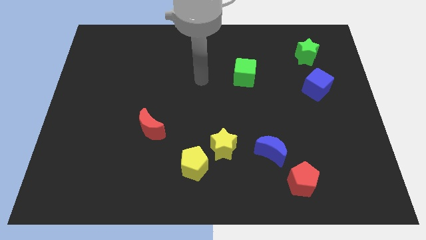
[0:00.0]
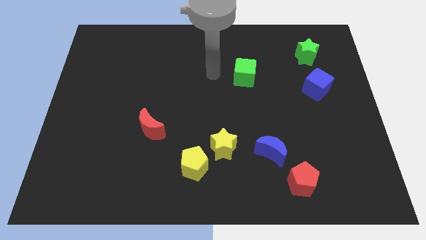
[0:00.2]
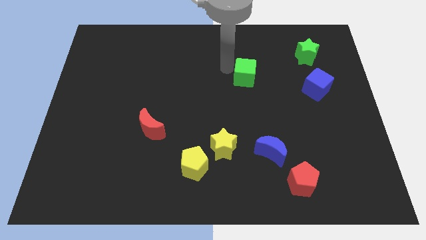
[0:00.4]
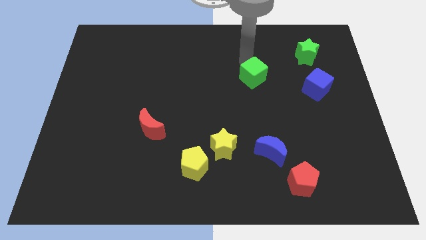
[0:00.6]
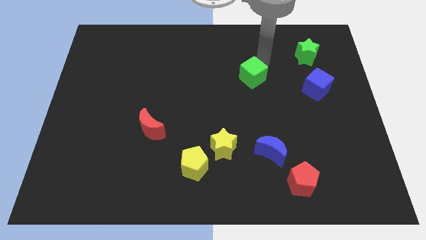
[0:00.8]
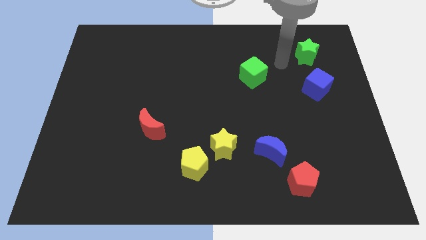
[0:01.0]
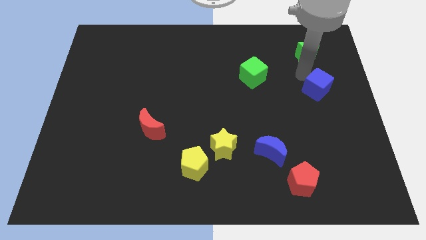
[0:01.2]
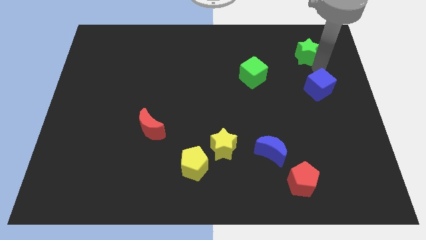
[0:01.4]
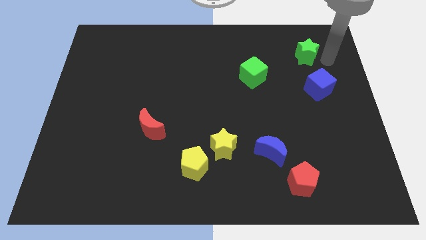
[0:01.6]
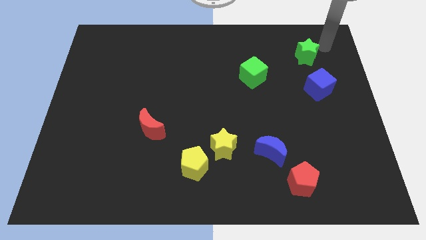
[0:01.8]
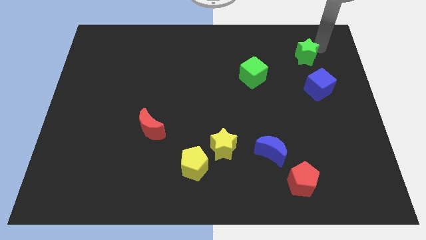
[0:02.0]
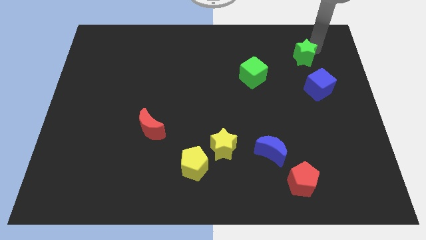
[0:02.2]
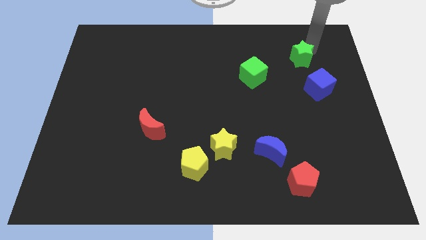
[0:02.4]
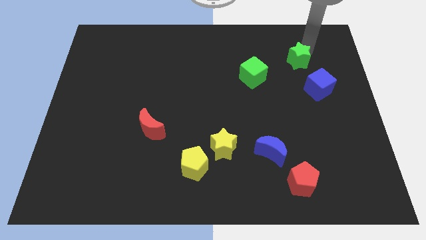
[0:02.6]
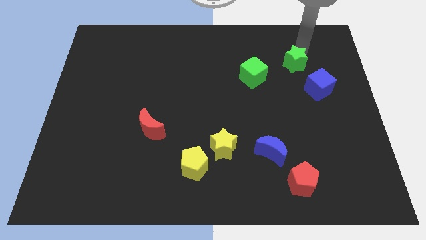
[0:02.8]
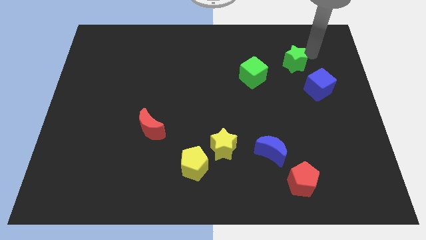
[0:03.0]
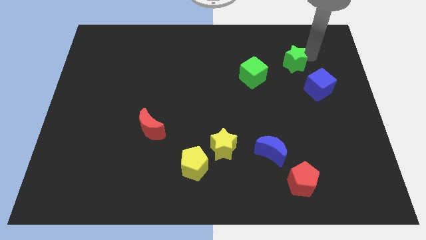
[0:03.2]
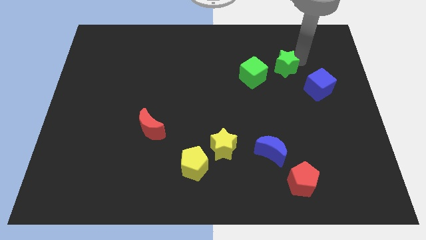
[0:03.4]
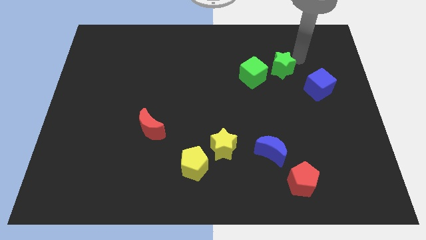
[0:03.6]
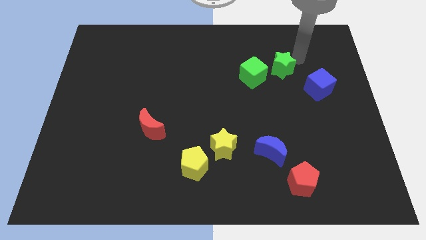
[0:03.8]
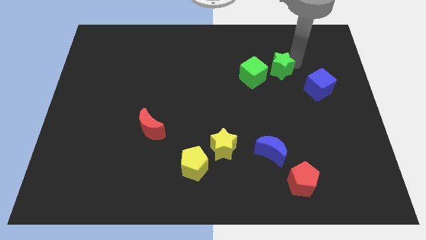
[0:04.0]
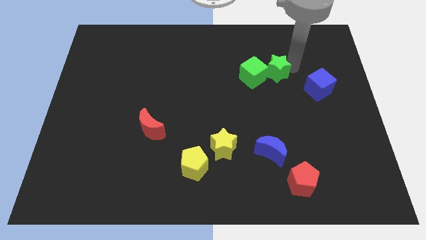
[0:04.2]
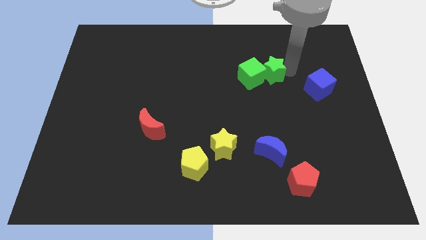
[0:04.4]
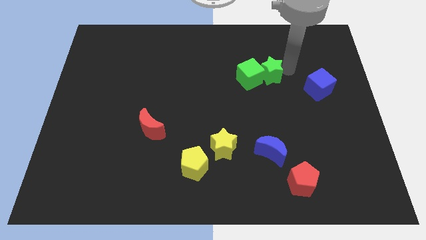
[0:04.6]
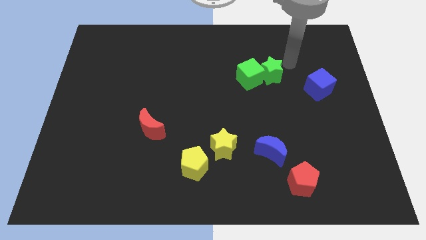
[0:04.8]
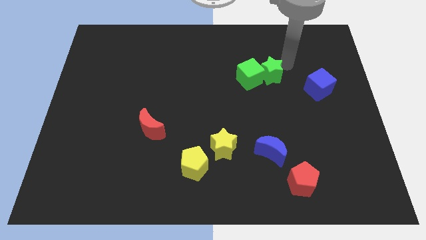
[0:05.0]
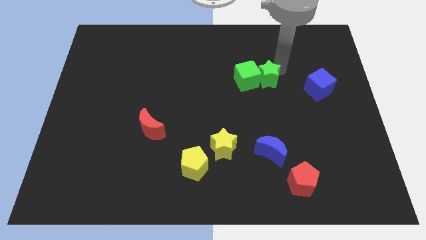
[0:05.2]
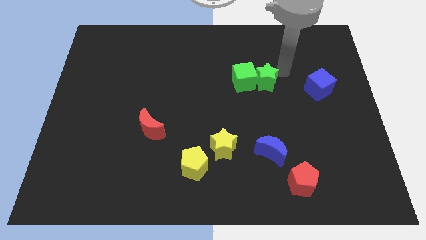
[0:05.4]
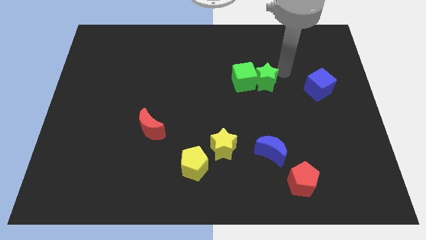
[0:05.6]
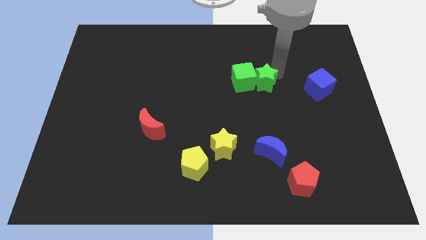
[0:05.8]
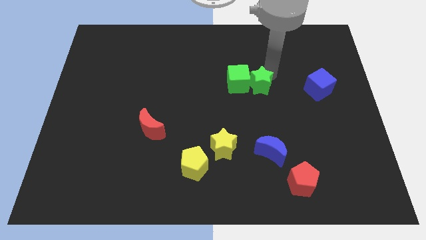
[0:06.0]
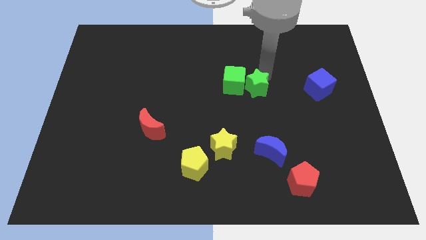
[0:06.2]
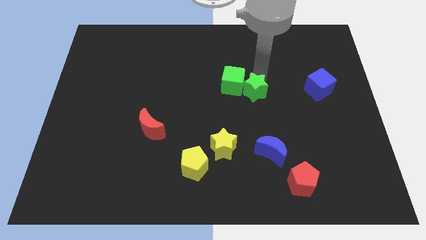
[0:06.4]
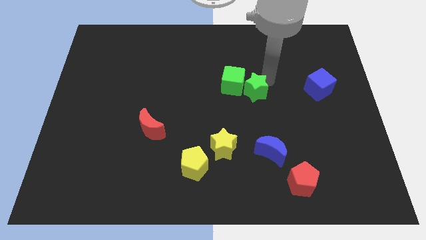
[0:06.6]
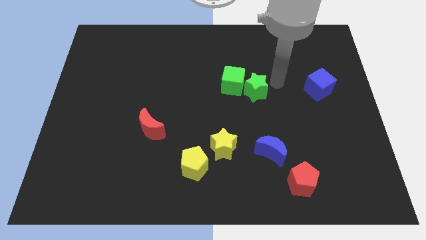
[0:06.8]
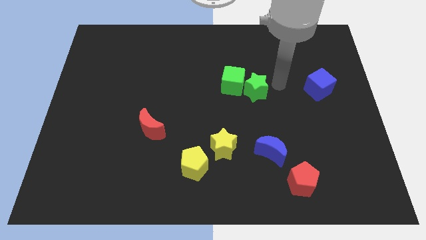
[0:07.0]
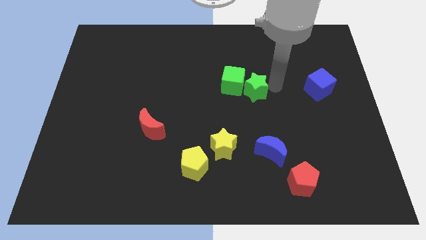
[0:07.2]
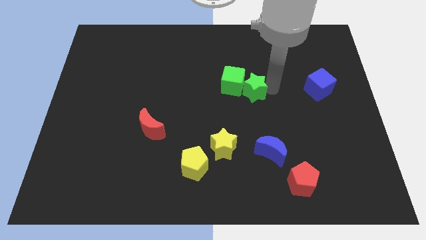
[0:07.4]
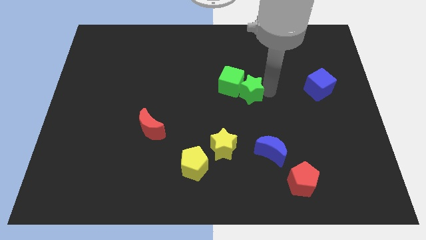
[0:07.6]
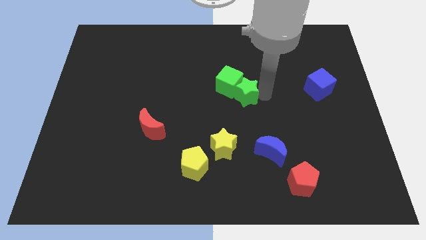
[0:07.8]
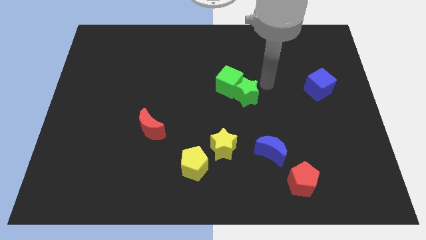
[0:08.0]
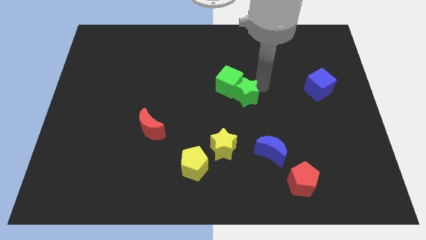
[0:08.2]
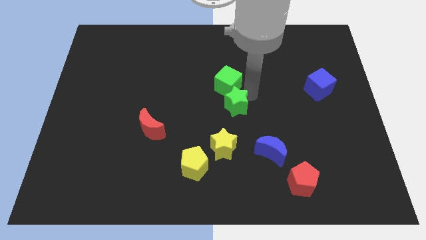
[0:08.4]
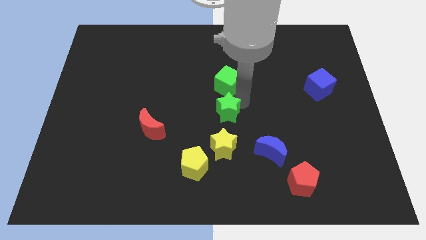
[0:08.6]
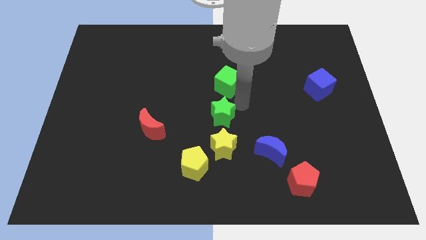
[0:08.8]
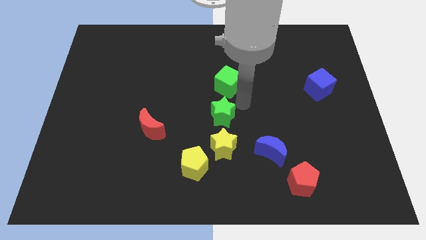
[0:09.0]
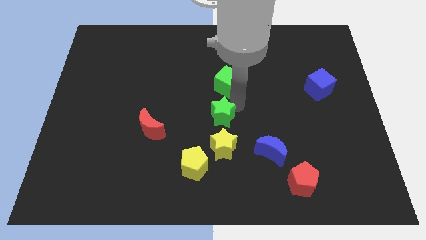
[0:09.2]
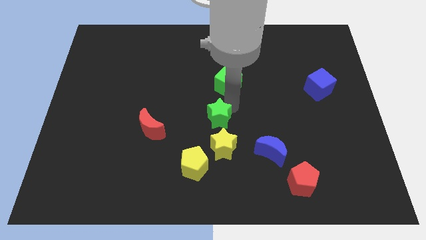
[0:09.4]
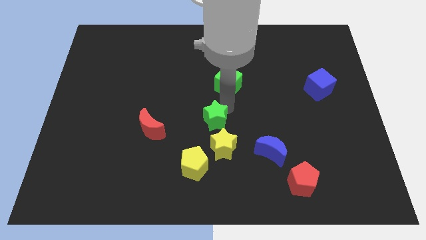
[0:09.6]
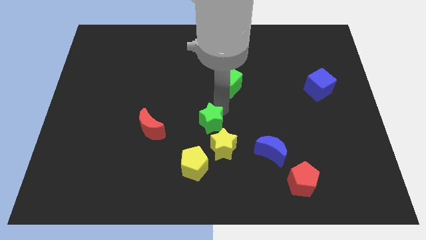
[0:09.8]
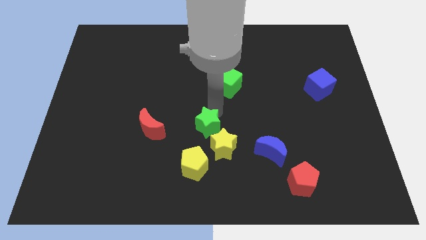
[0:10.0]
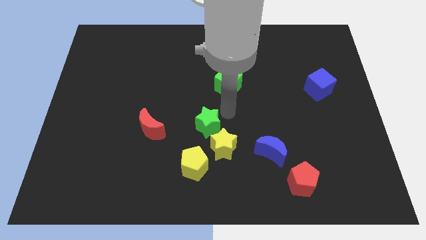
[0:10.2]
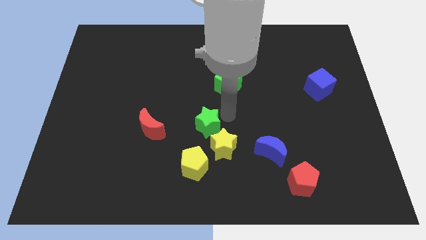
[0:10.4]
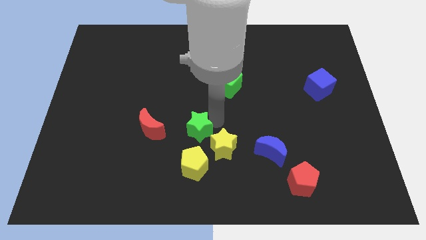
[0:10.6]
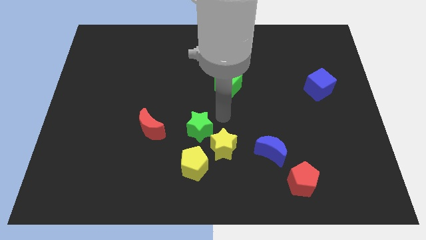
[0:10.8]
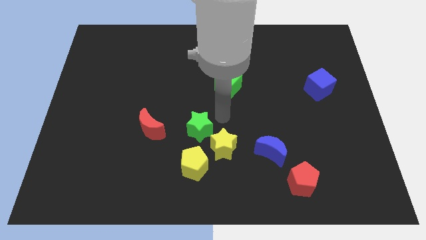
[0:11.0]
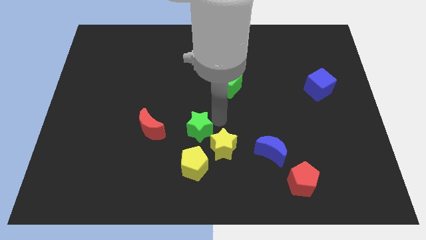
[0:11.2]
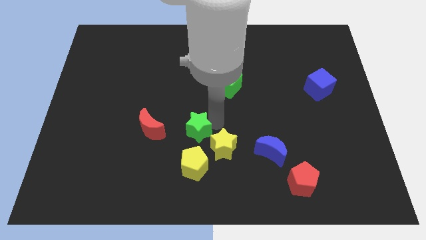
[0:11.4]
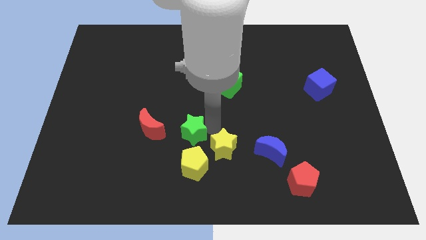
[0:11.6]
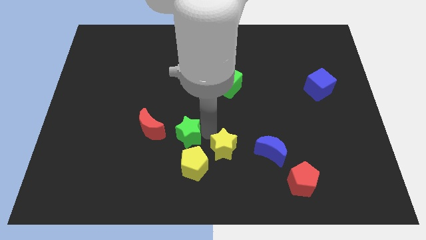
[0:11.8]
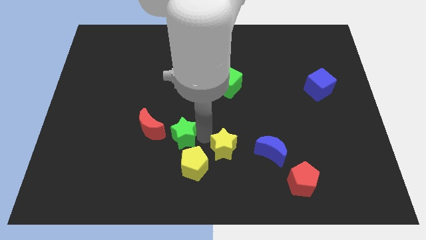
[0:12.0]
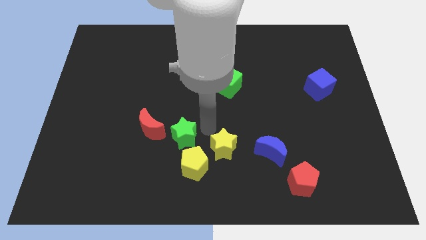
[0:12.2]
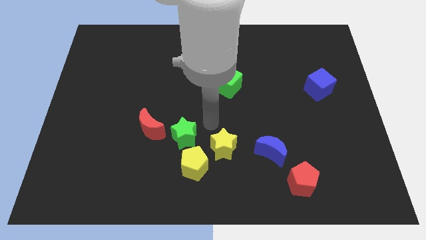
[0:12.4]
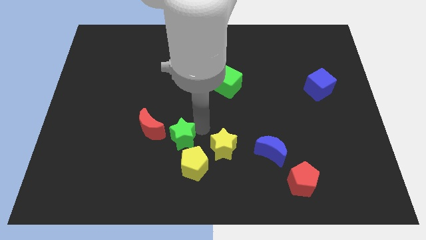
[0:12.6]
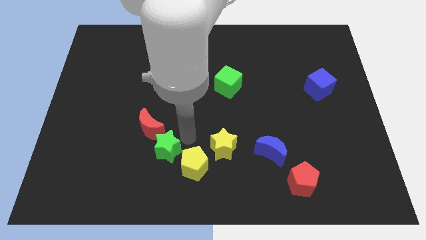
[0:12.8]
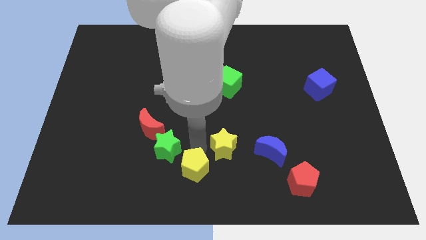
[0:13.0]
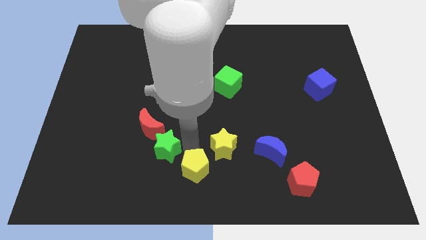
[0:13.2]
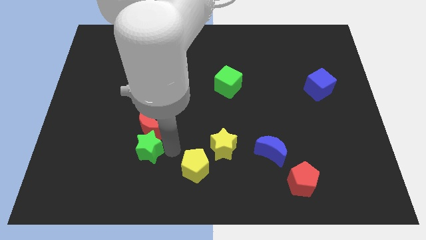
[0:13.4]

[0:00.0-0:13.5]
move the green star to the bottom left of the red moon
